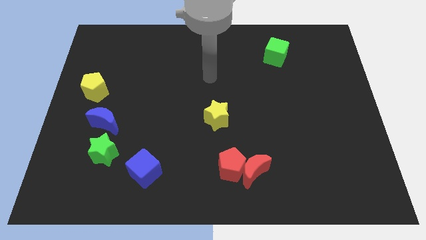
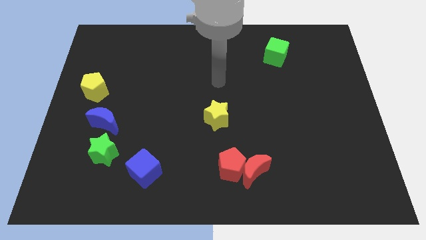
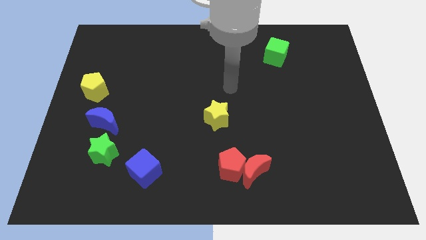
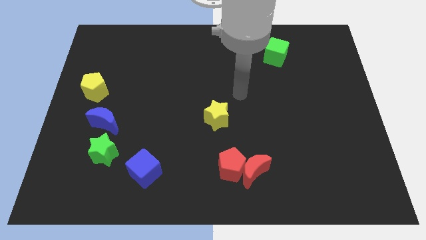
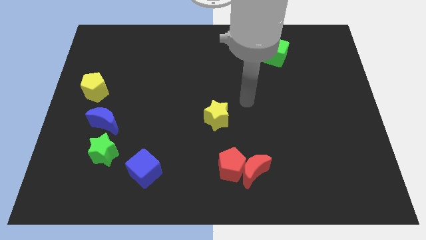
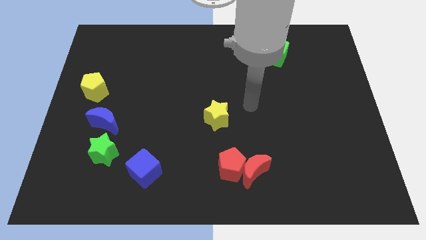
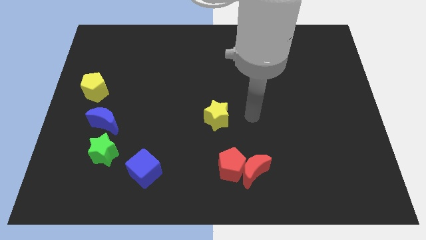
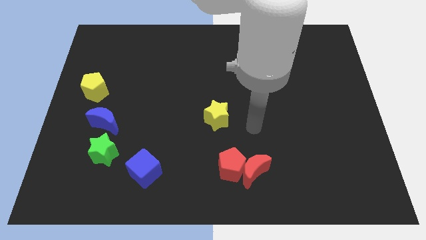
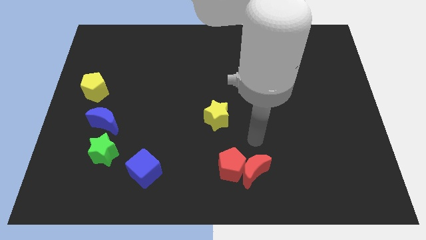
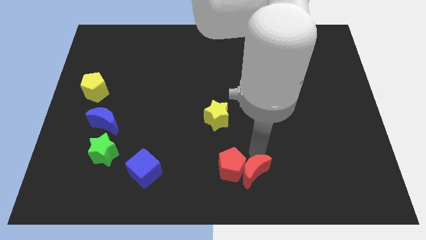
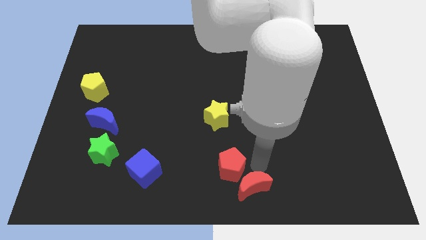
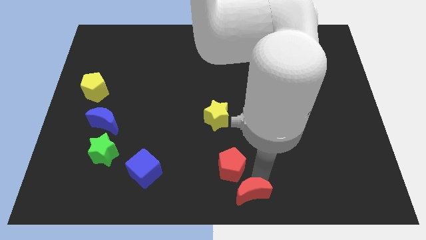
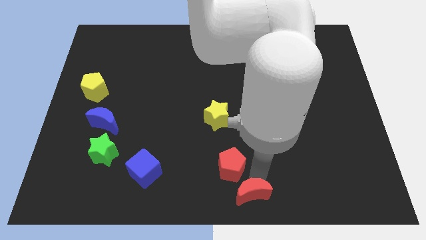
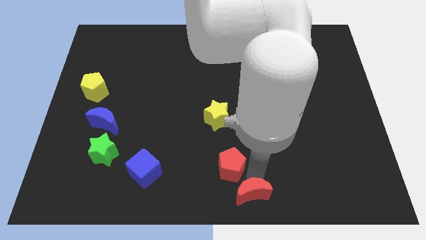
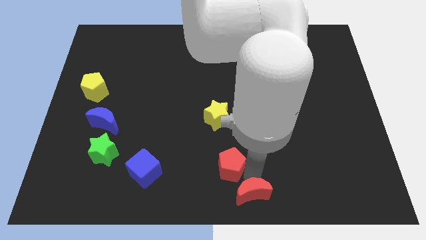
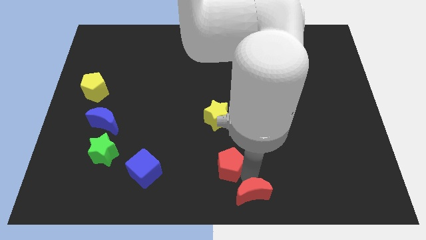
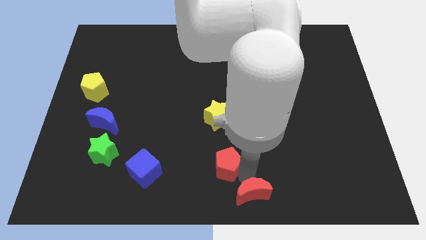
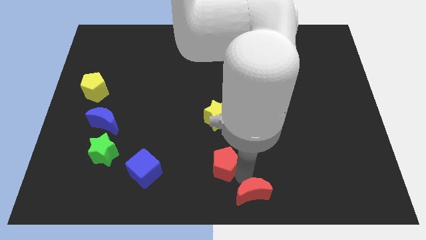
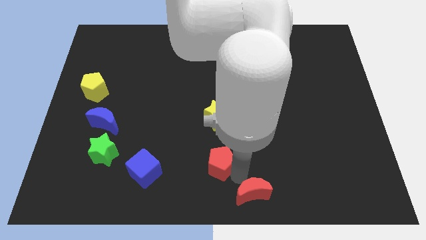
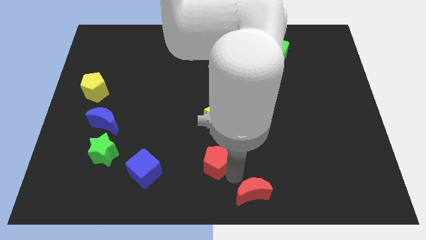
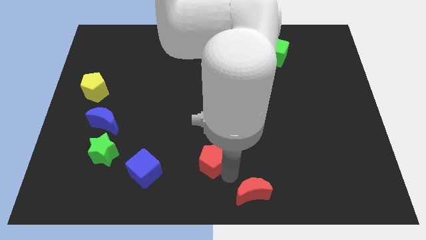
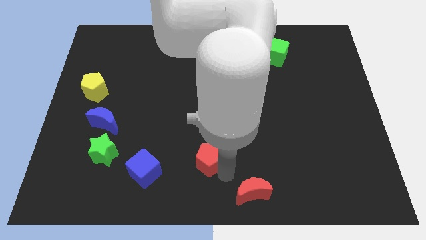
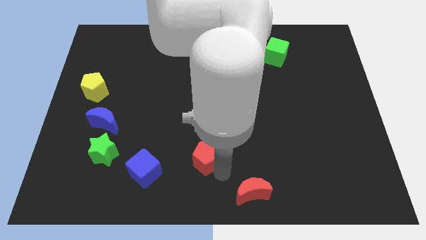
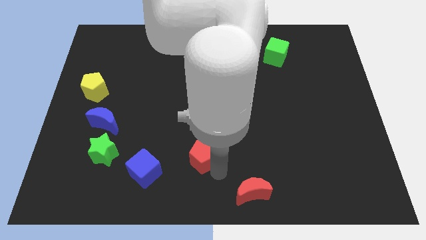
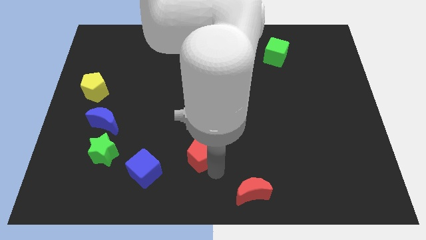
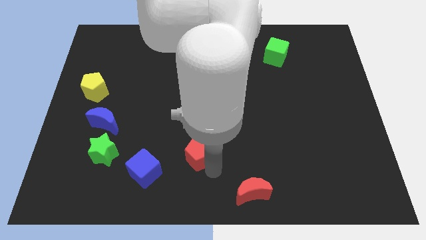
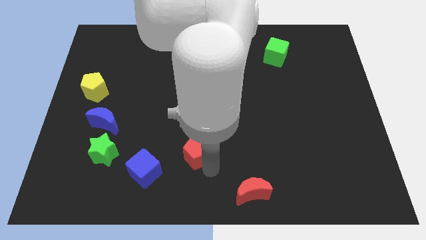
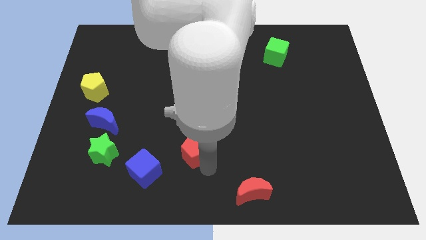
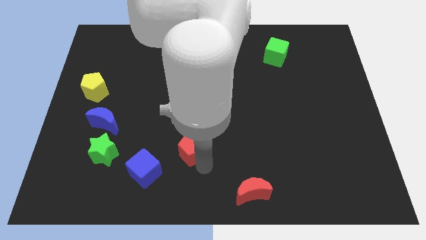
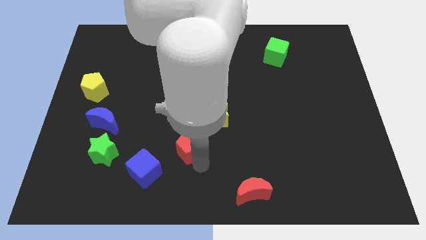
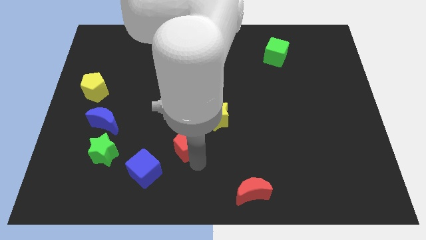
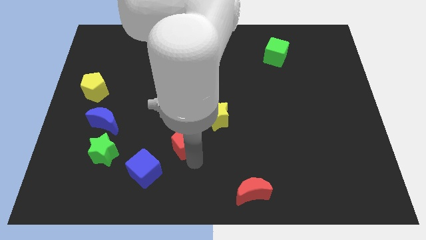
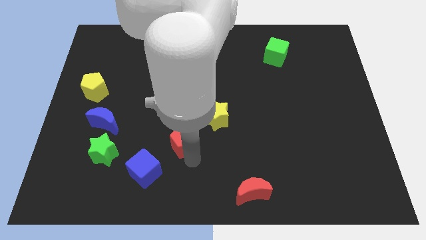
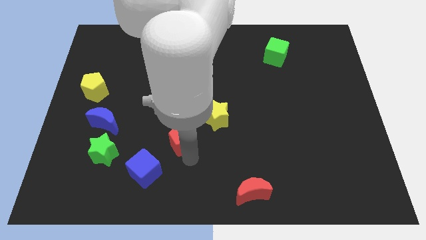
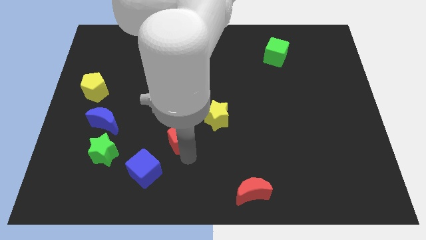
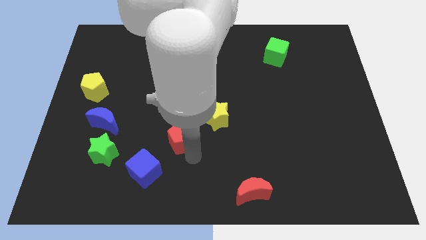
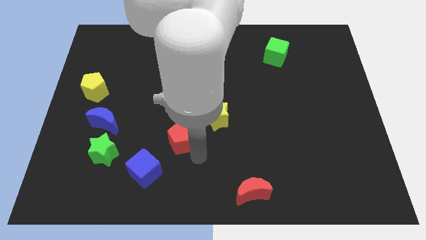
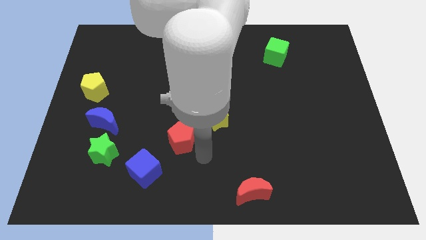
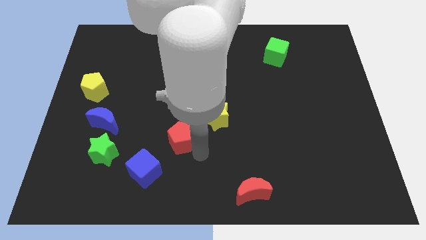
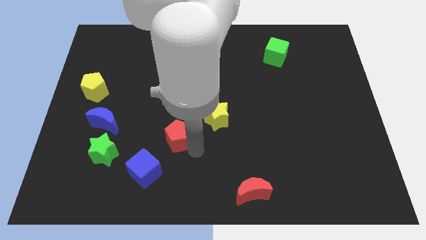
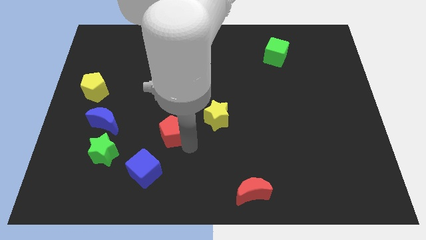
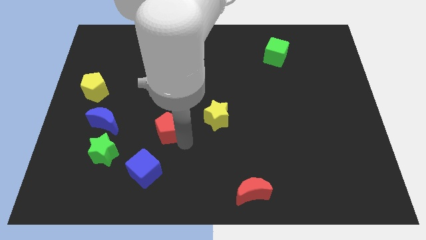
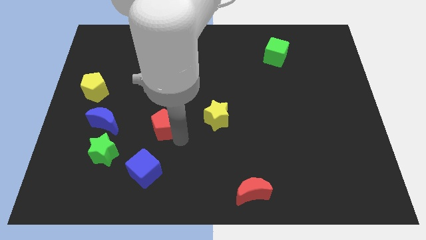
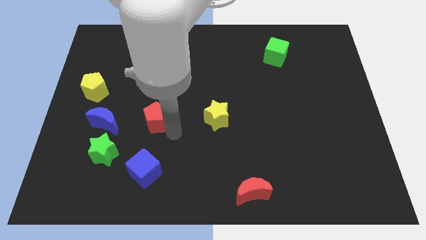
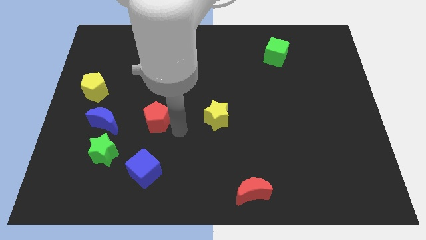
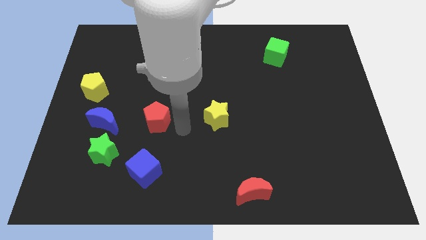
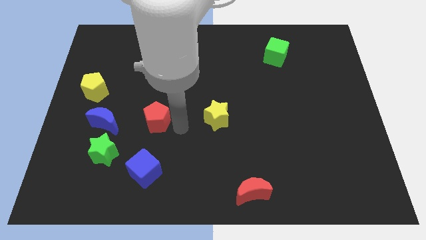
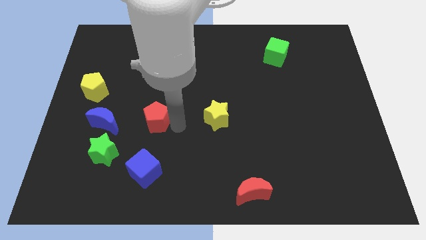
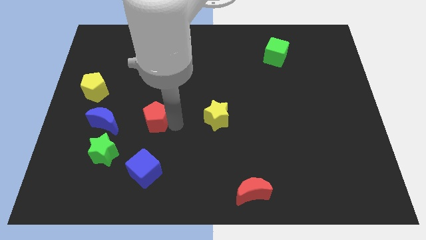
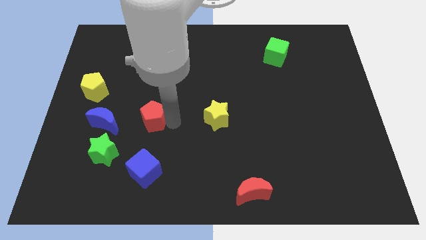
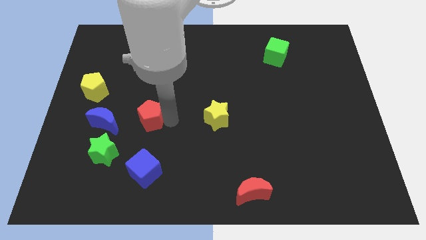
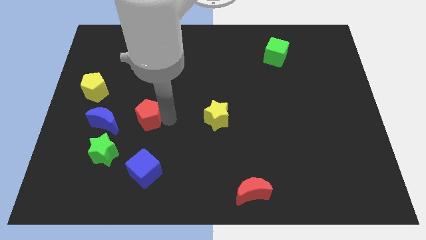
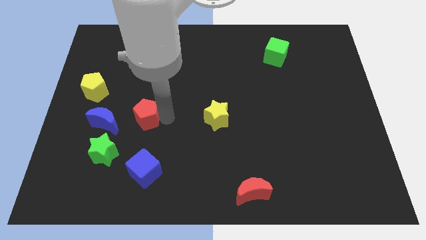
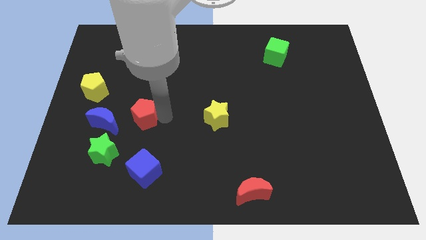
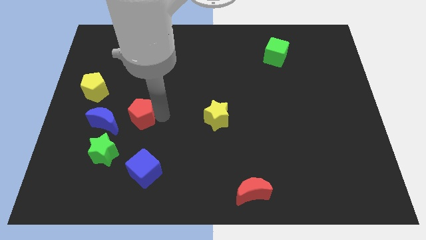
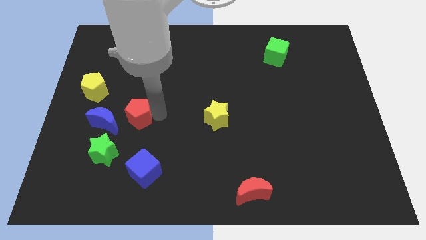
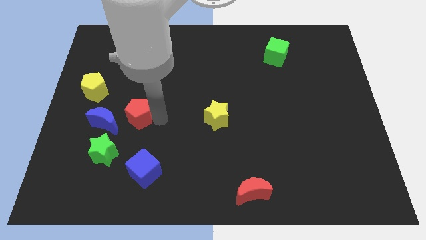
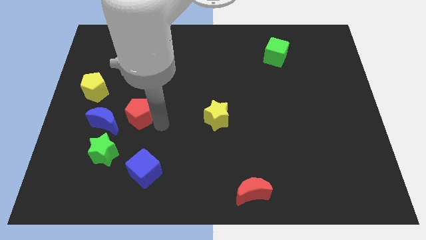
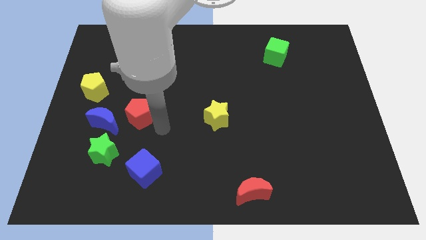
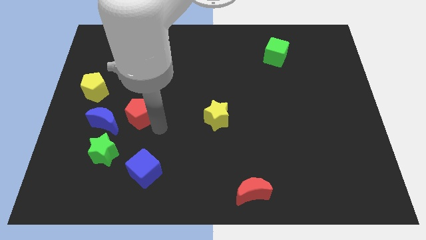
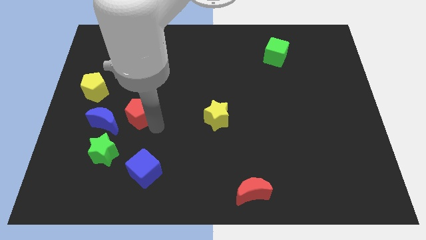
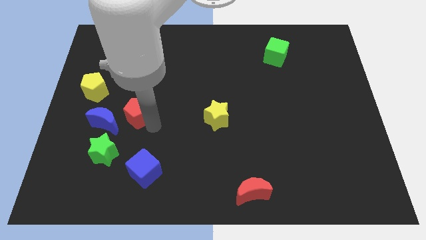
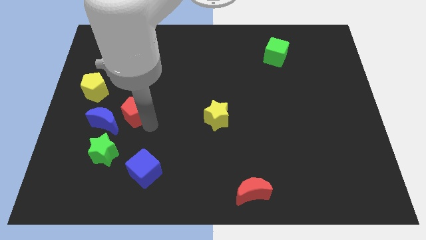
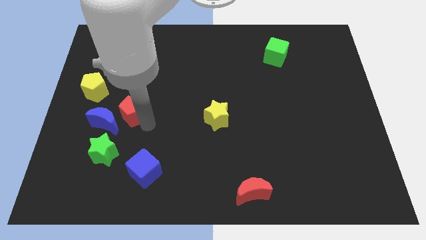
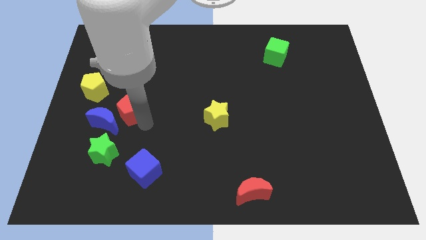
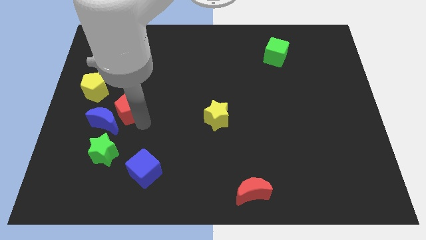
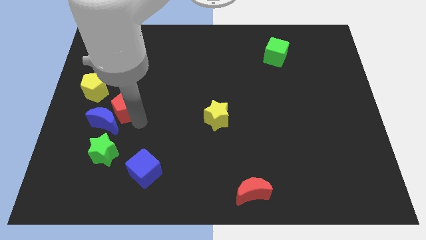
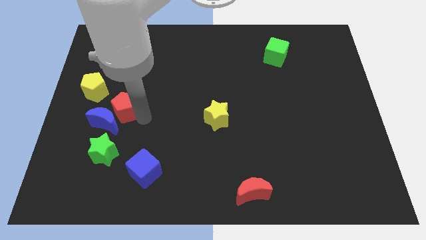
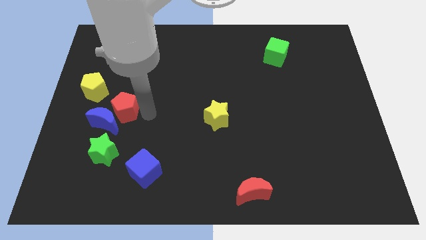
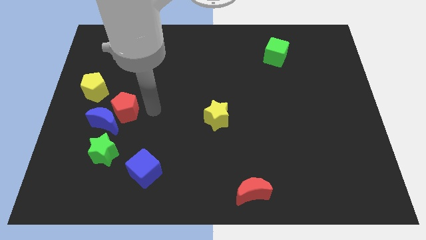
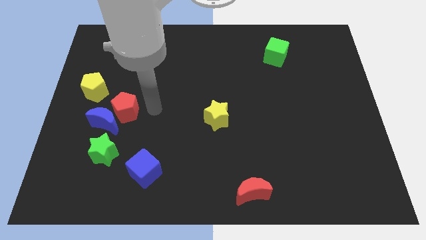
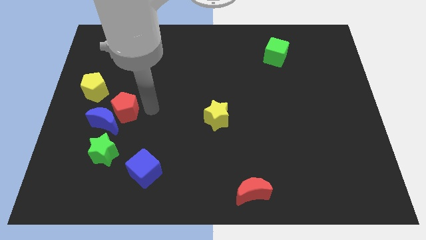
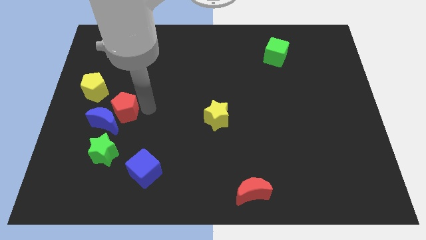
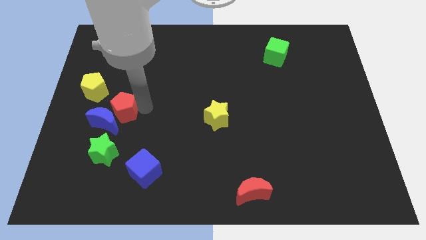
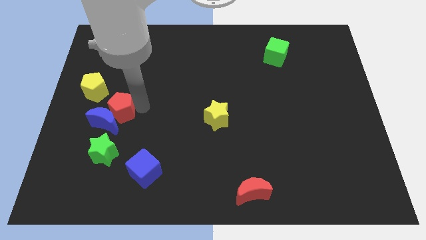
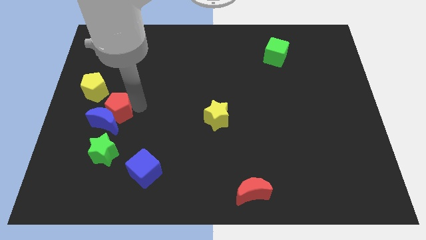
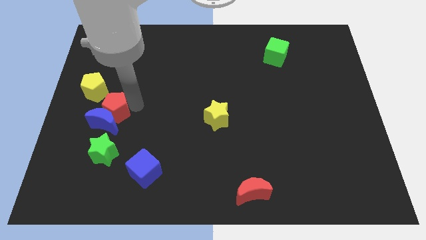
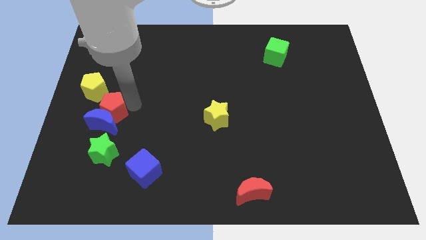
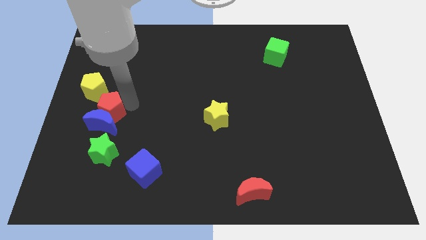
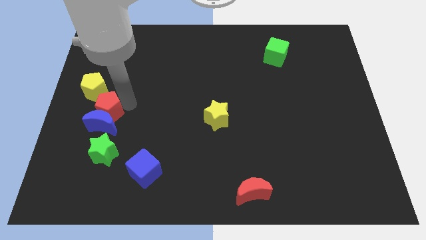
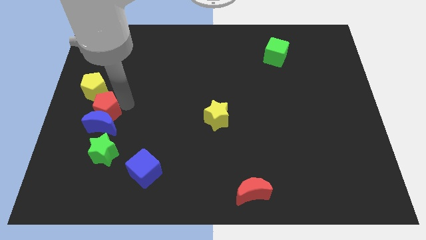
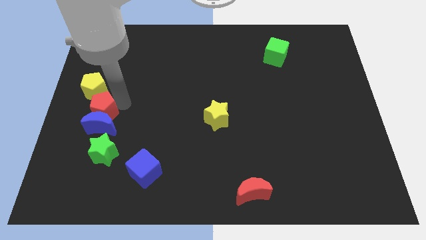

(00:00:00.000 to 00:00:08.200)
slide the red pentagon to the left side of the board
